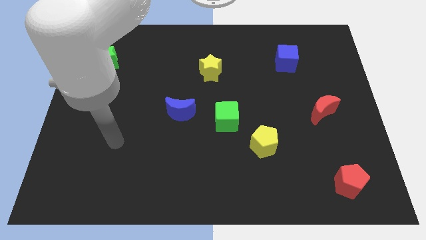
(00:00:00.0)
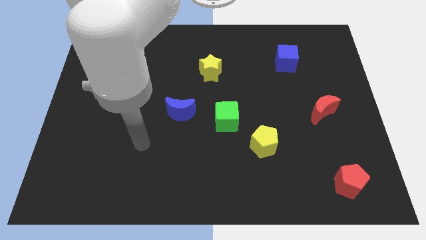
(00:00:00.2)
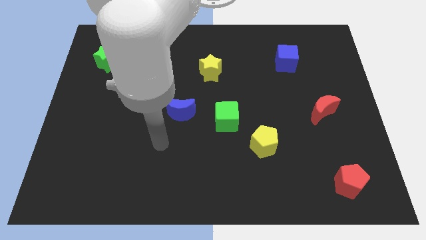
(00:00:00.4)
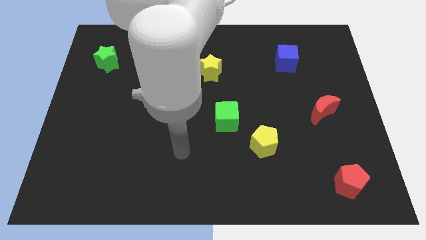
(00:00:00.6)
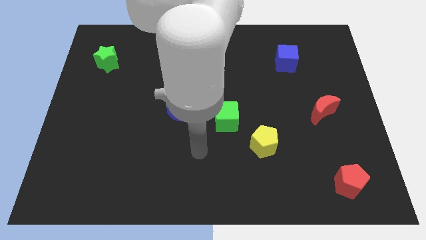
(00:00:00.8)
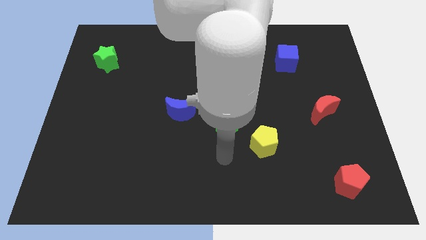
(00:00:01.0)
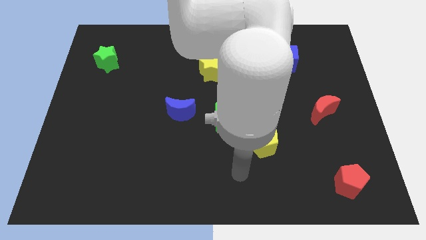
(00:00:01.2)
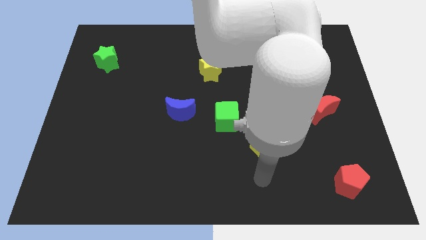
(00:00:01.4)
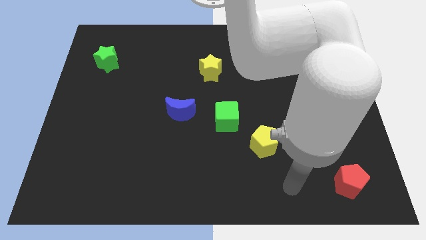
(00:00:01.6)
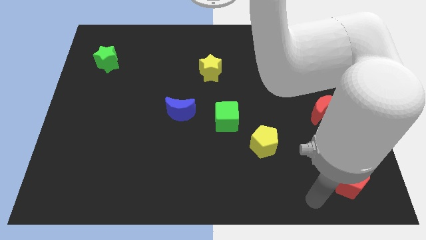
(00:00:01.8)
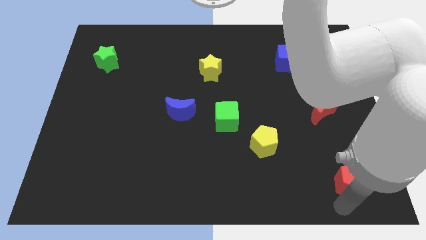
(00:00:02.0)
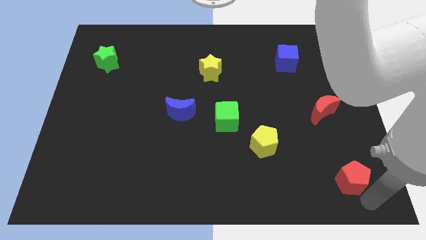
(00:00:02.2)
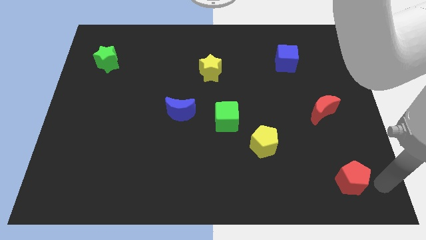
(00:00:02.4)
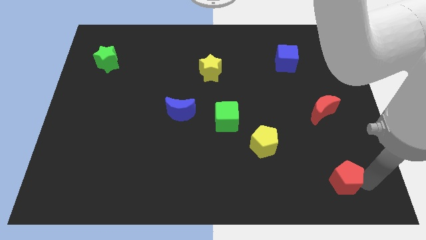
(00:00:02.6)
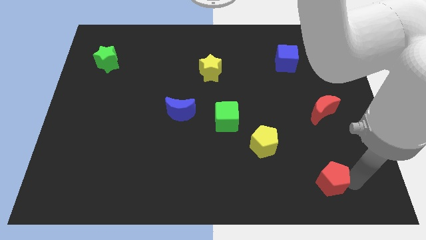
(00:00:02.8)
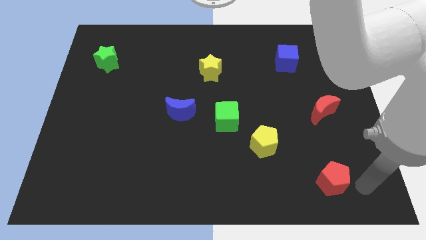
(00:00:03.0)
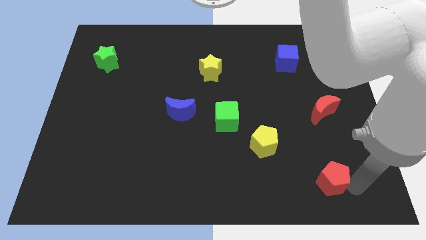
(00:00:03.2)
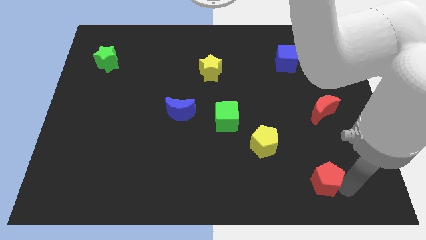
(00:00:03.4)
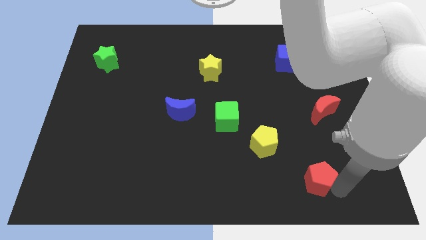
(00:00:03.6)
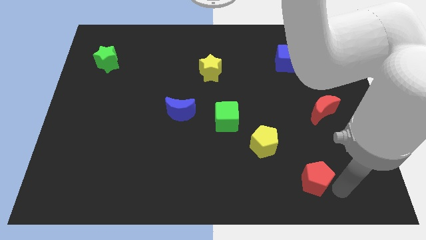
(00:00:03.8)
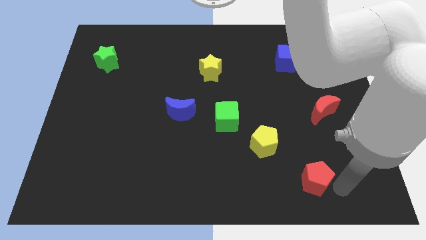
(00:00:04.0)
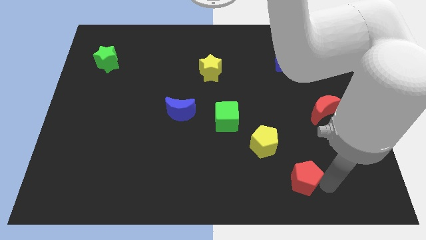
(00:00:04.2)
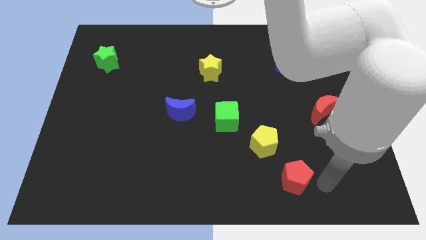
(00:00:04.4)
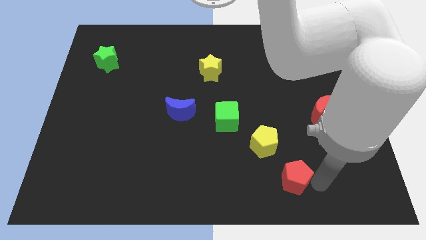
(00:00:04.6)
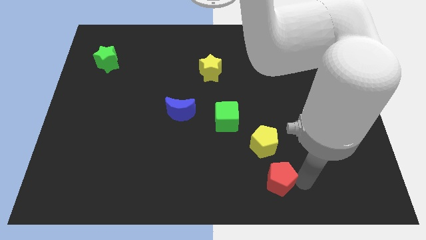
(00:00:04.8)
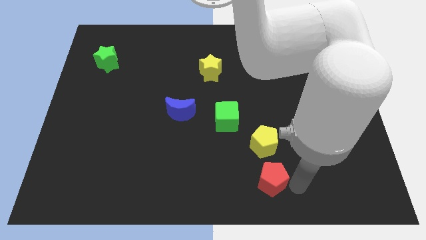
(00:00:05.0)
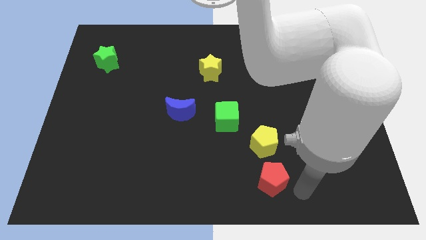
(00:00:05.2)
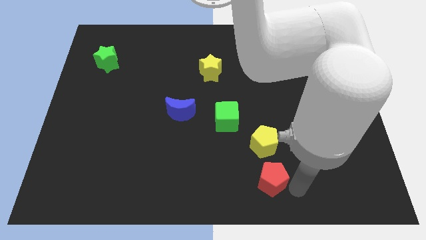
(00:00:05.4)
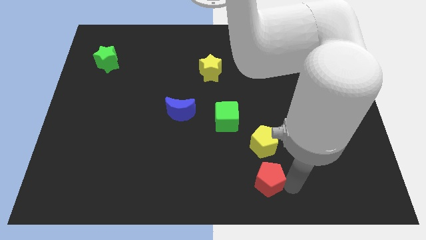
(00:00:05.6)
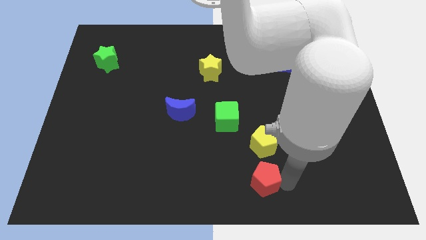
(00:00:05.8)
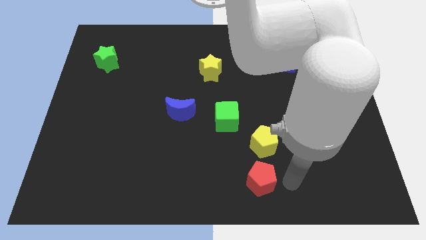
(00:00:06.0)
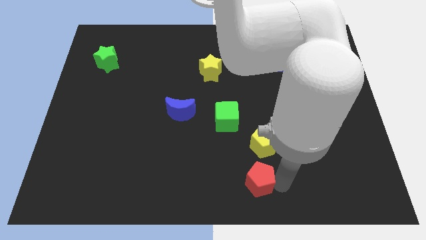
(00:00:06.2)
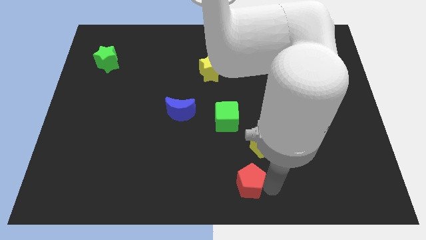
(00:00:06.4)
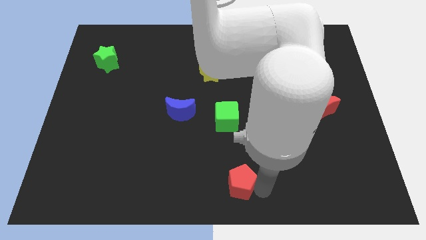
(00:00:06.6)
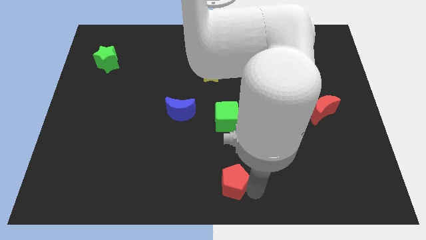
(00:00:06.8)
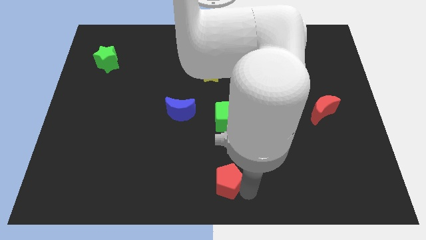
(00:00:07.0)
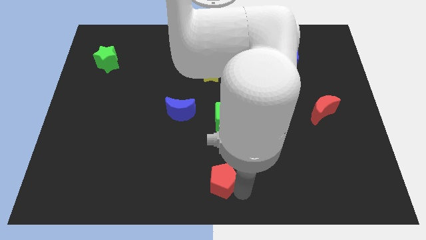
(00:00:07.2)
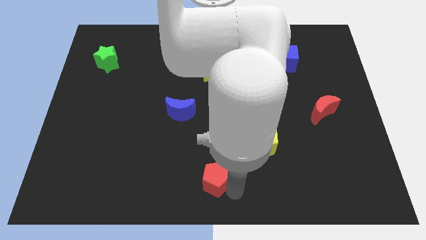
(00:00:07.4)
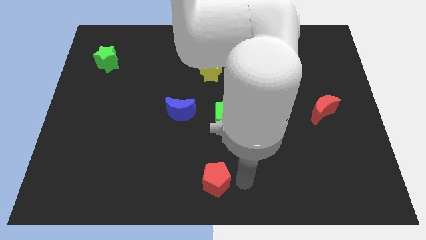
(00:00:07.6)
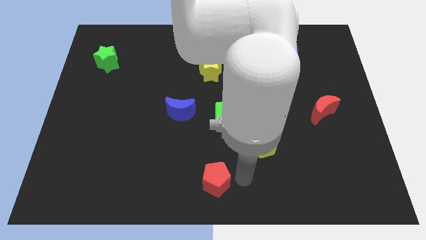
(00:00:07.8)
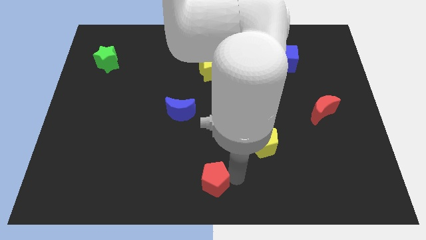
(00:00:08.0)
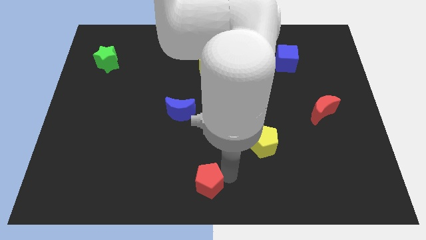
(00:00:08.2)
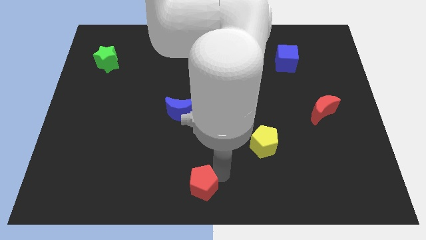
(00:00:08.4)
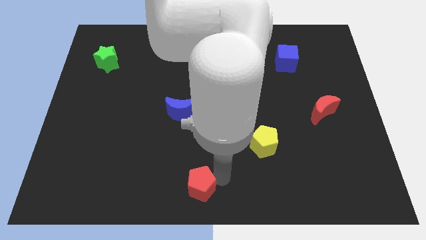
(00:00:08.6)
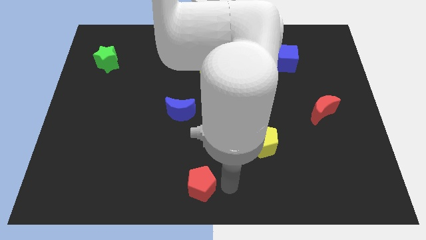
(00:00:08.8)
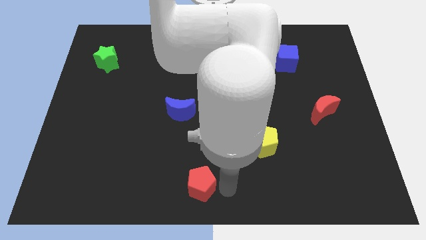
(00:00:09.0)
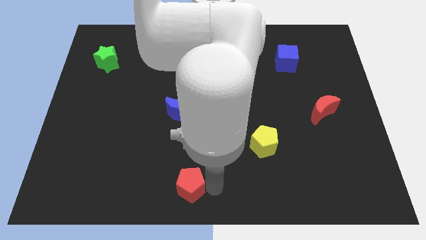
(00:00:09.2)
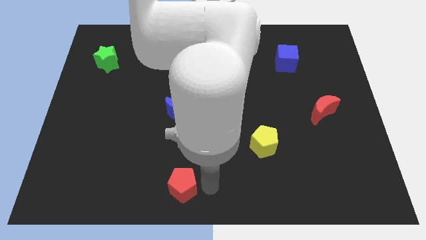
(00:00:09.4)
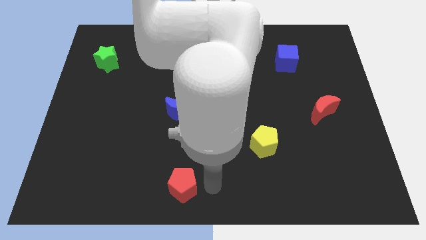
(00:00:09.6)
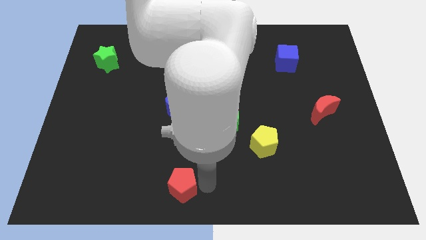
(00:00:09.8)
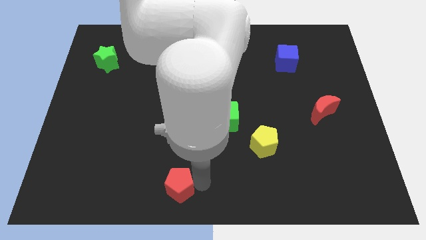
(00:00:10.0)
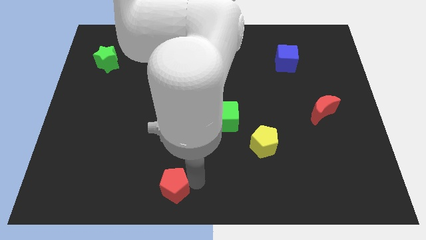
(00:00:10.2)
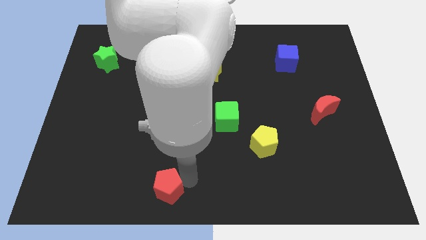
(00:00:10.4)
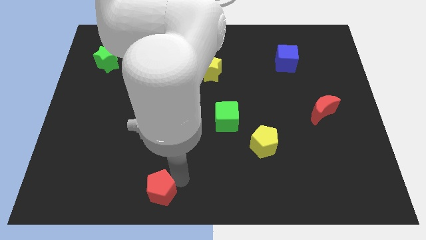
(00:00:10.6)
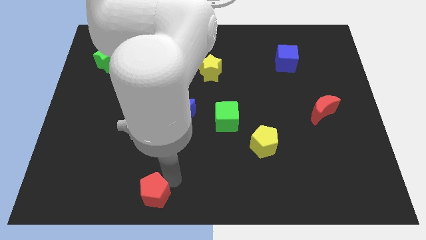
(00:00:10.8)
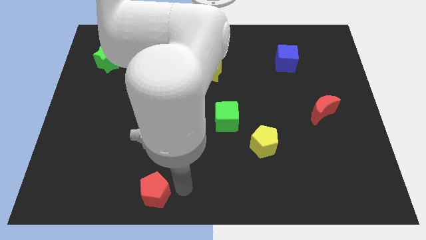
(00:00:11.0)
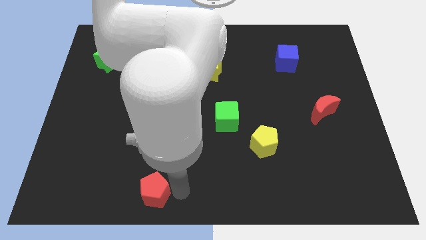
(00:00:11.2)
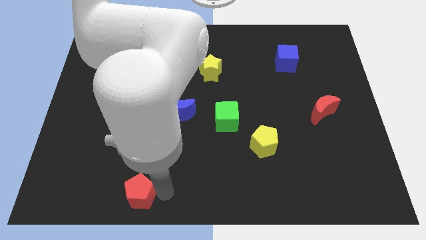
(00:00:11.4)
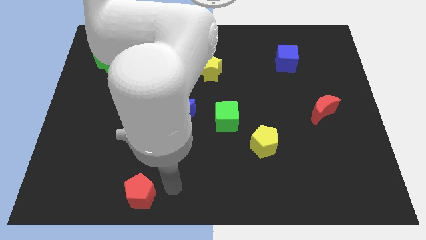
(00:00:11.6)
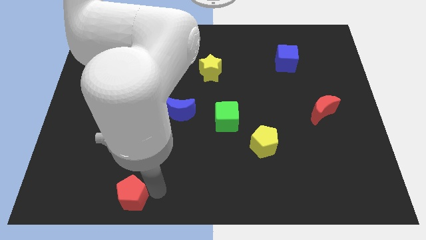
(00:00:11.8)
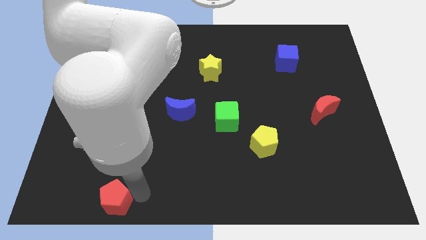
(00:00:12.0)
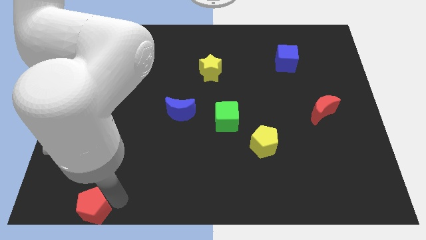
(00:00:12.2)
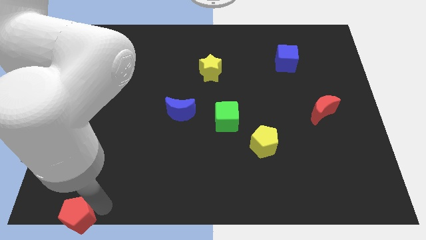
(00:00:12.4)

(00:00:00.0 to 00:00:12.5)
slide the red pentagon to the bottom left of the board
